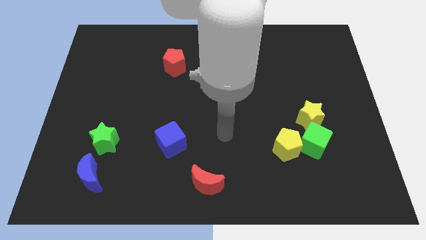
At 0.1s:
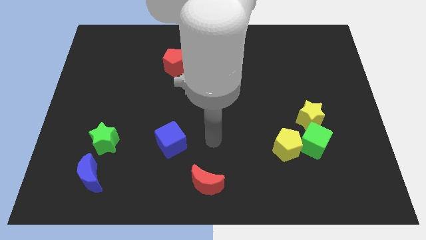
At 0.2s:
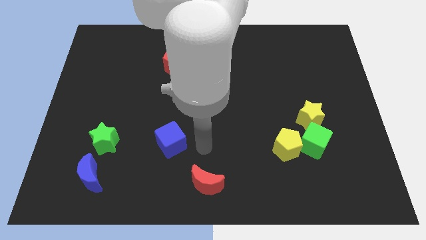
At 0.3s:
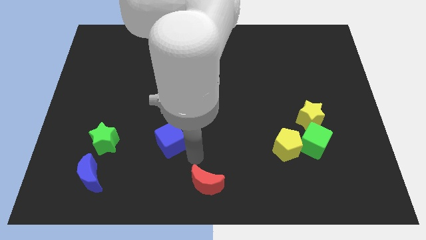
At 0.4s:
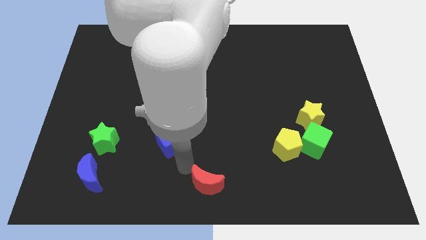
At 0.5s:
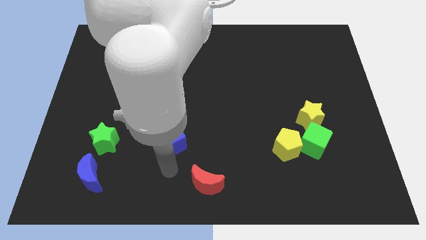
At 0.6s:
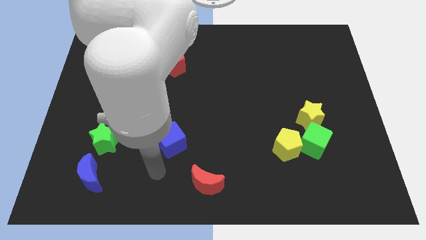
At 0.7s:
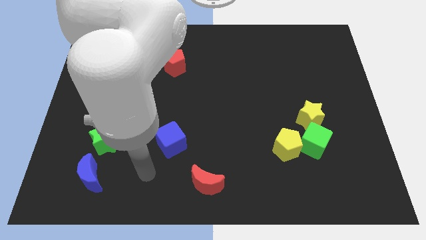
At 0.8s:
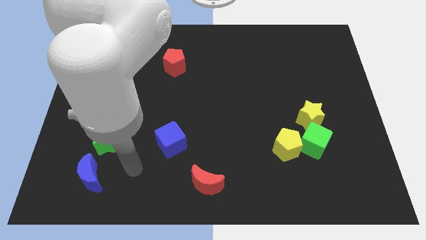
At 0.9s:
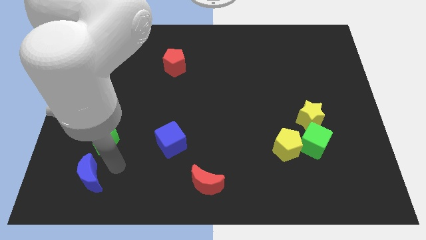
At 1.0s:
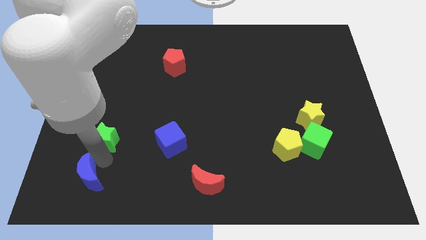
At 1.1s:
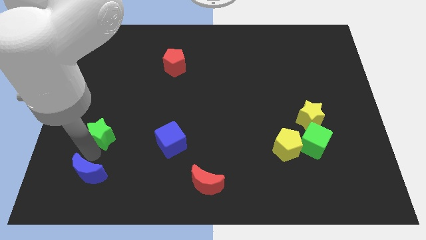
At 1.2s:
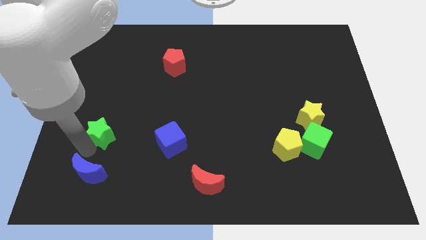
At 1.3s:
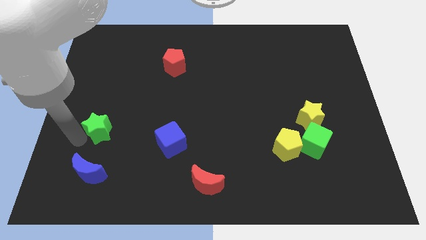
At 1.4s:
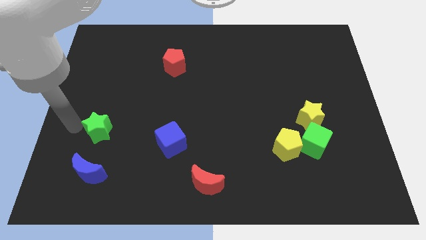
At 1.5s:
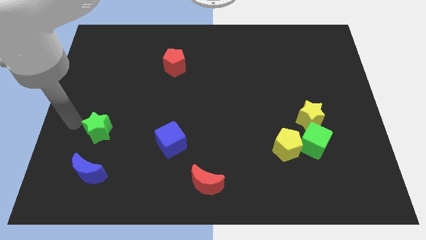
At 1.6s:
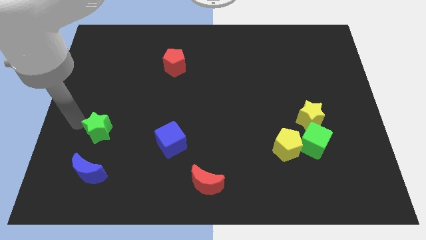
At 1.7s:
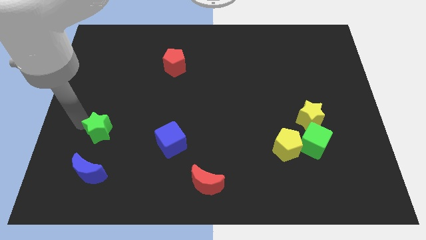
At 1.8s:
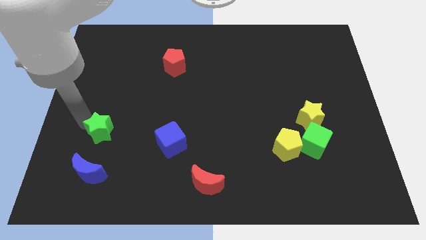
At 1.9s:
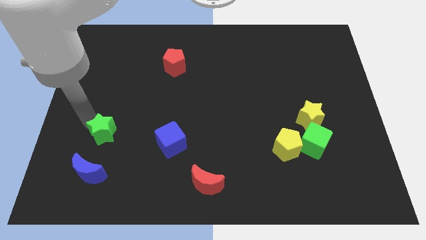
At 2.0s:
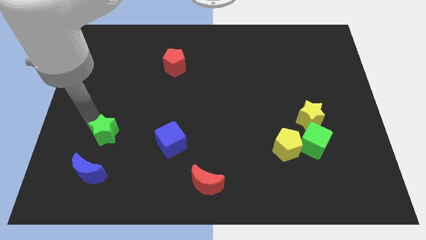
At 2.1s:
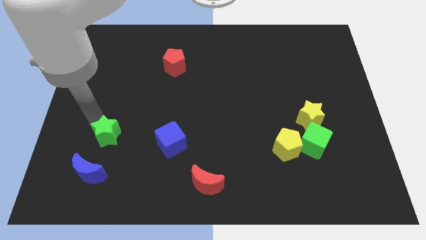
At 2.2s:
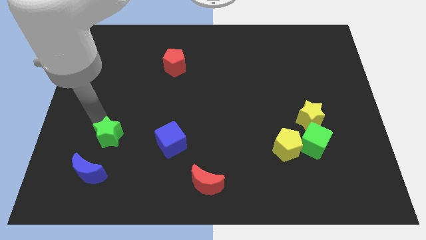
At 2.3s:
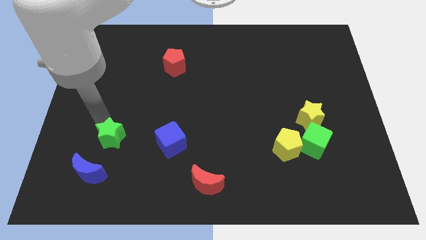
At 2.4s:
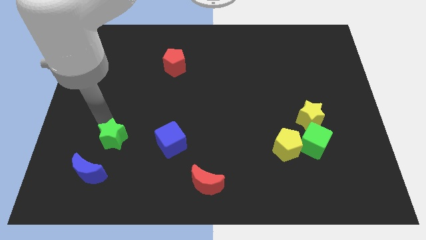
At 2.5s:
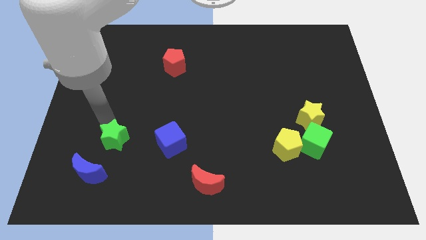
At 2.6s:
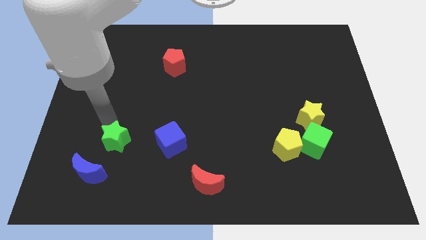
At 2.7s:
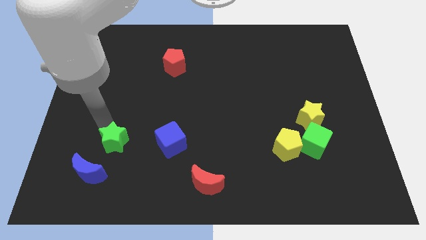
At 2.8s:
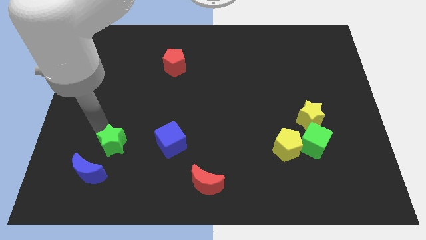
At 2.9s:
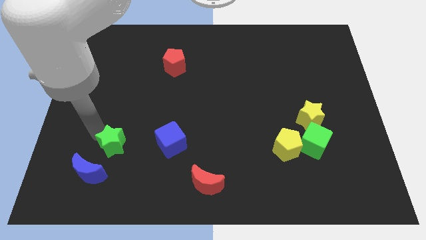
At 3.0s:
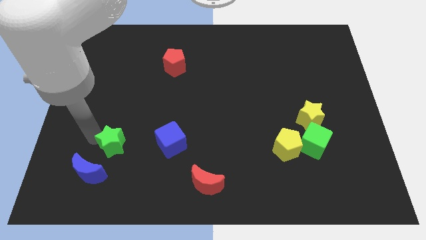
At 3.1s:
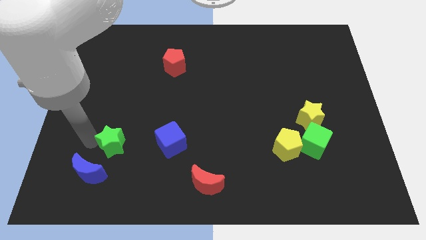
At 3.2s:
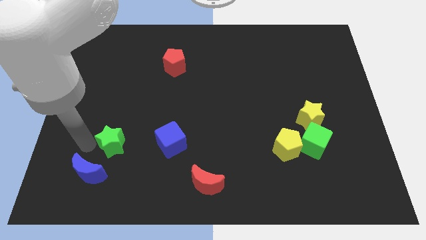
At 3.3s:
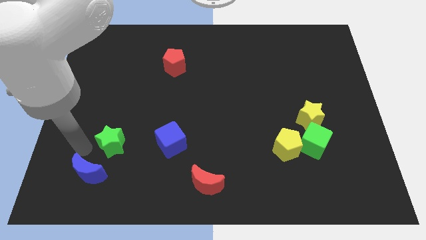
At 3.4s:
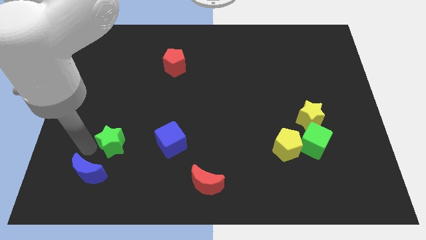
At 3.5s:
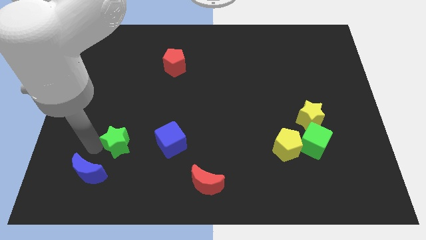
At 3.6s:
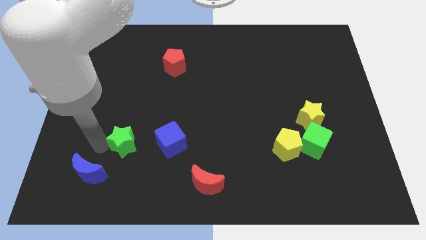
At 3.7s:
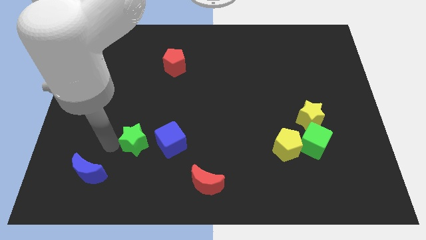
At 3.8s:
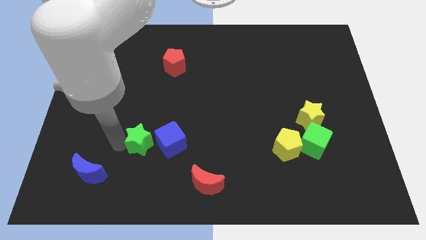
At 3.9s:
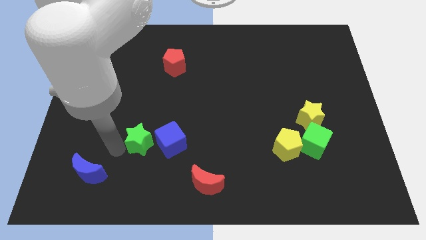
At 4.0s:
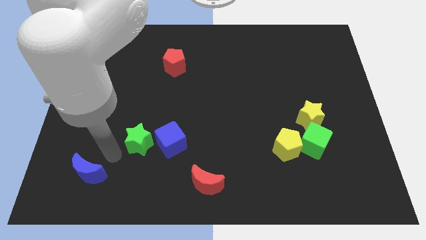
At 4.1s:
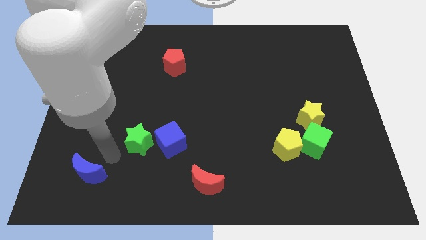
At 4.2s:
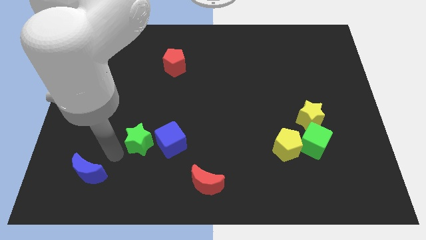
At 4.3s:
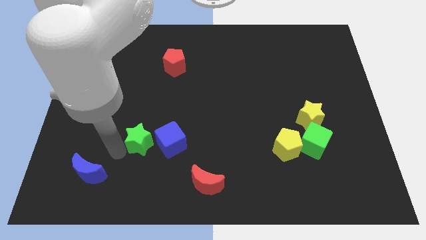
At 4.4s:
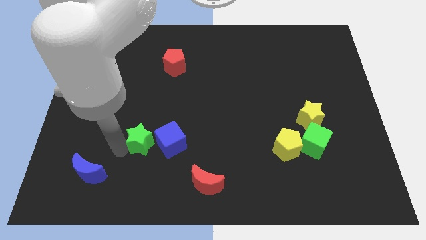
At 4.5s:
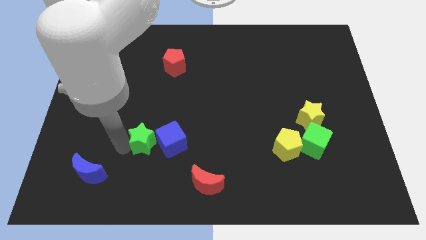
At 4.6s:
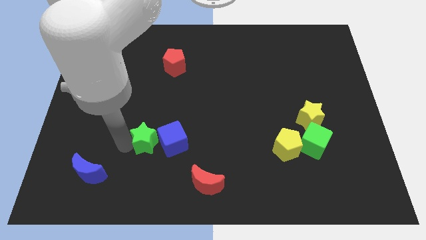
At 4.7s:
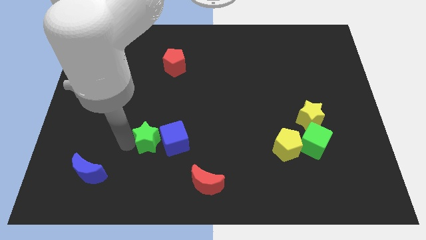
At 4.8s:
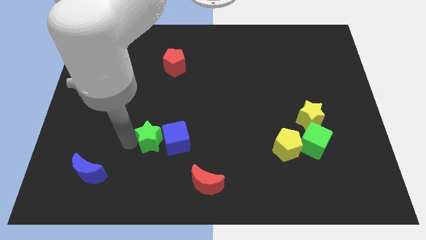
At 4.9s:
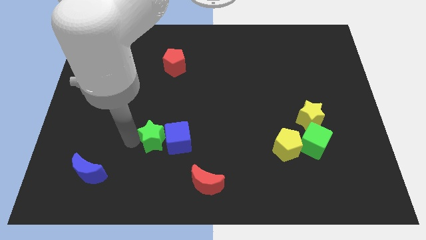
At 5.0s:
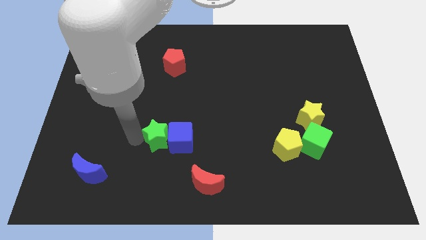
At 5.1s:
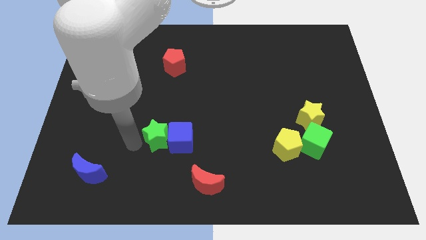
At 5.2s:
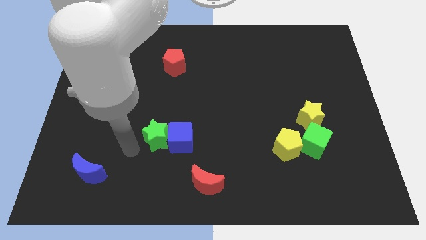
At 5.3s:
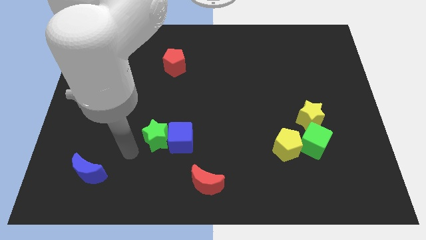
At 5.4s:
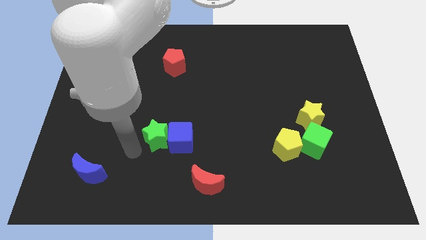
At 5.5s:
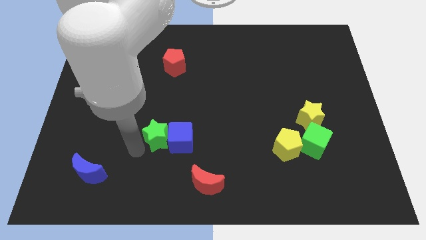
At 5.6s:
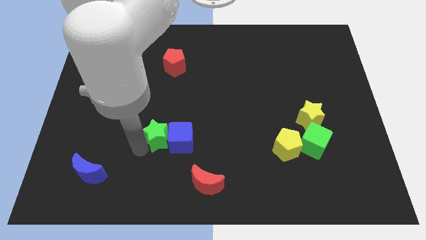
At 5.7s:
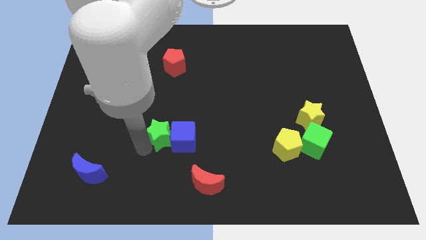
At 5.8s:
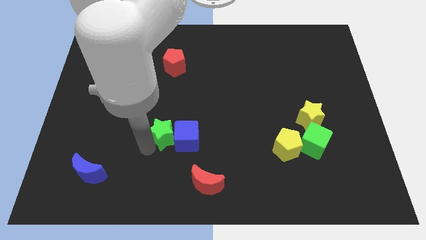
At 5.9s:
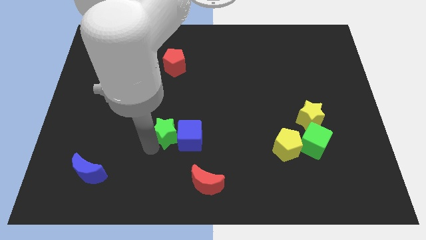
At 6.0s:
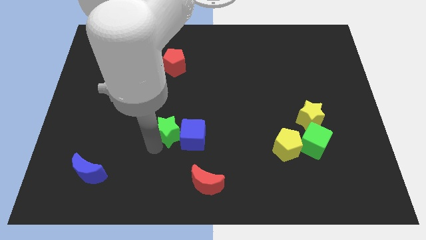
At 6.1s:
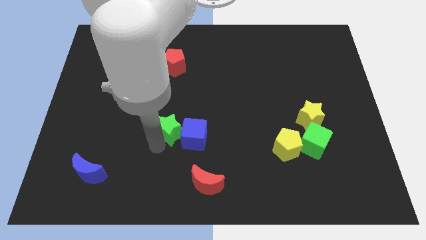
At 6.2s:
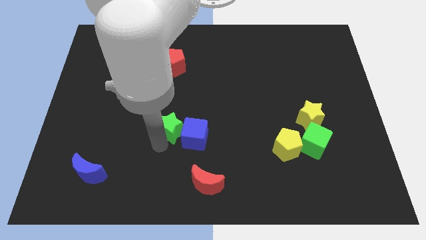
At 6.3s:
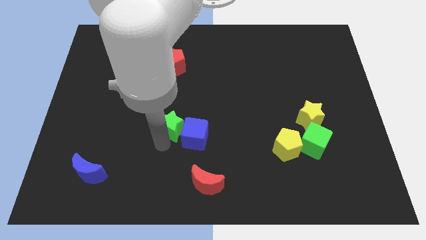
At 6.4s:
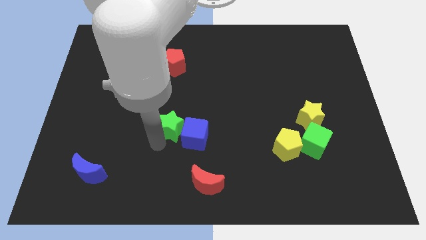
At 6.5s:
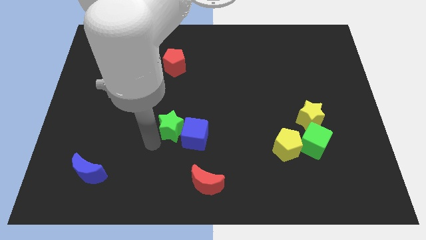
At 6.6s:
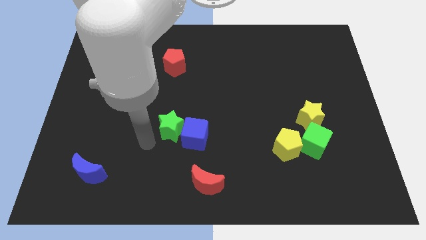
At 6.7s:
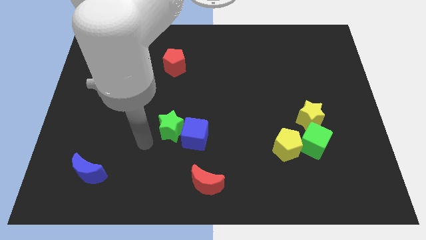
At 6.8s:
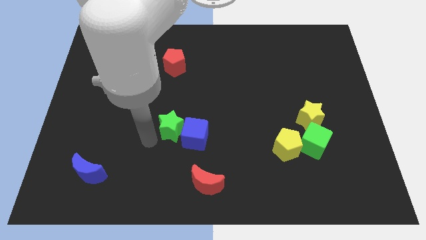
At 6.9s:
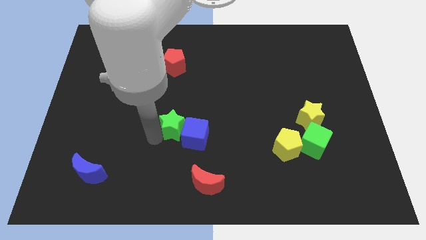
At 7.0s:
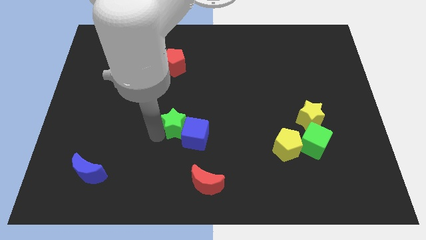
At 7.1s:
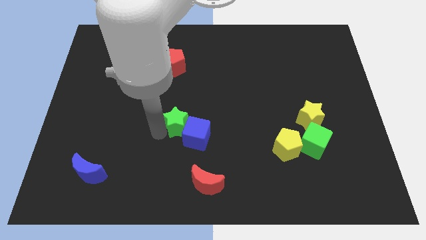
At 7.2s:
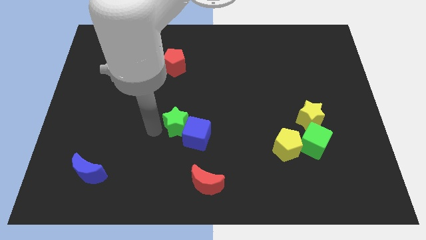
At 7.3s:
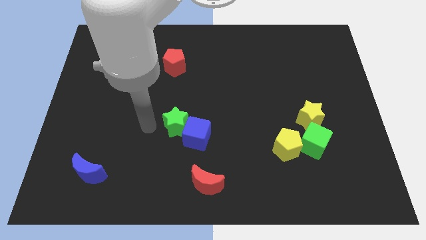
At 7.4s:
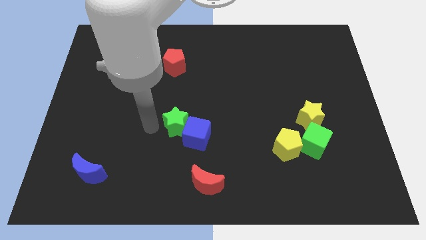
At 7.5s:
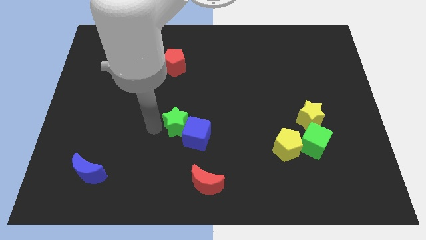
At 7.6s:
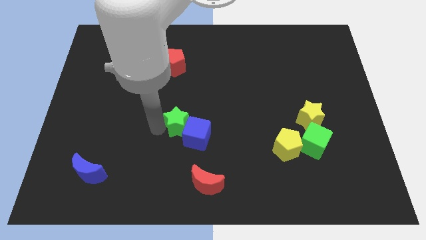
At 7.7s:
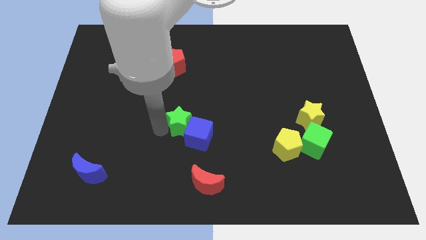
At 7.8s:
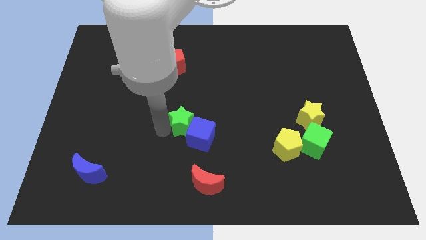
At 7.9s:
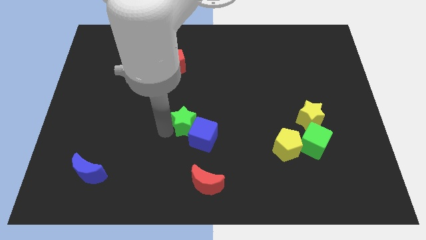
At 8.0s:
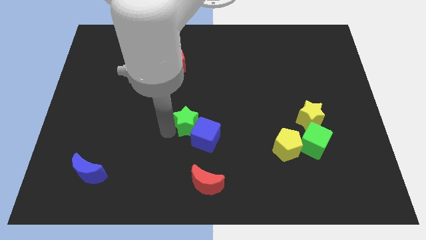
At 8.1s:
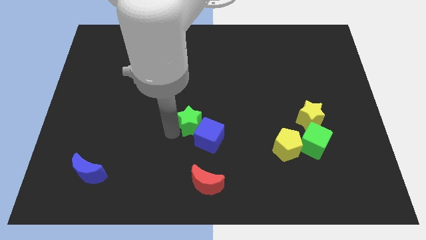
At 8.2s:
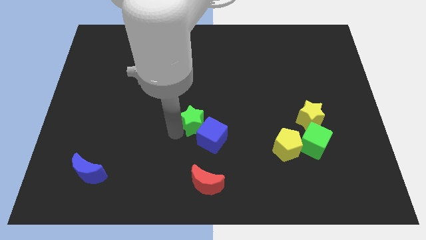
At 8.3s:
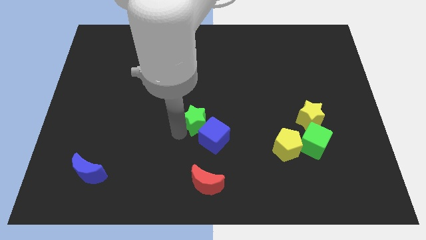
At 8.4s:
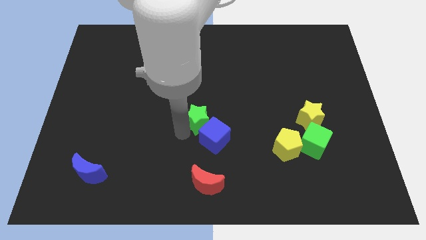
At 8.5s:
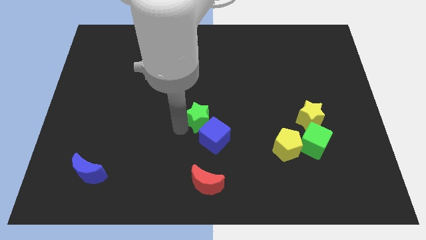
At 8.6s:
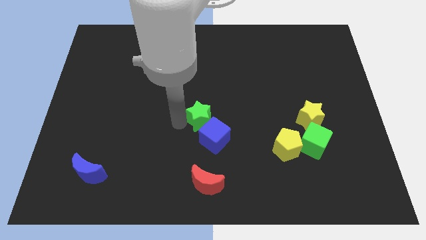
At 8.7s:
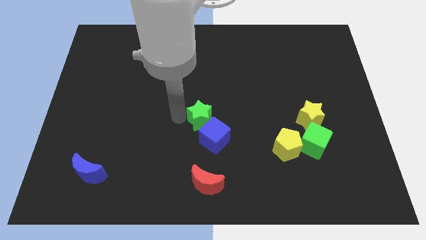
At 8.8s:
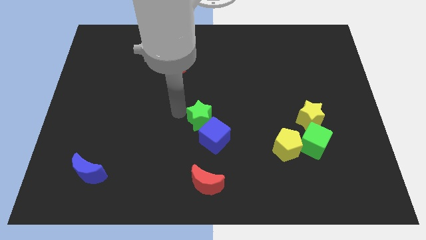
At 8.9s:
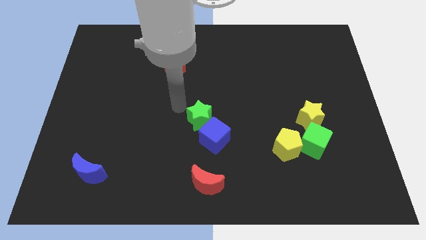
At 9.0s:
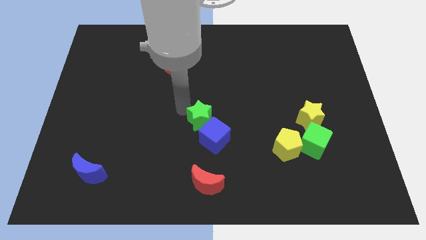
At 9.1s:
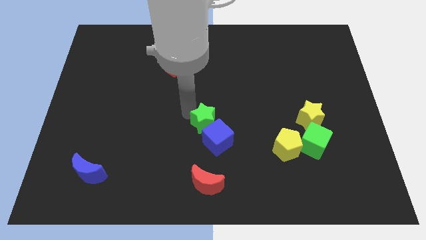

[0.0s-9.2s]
slide the green star to the right
